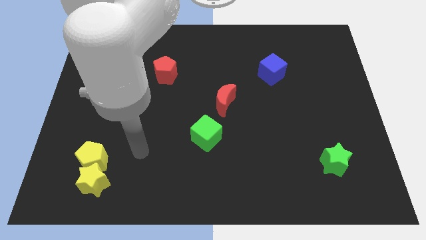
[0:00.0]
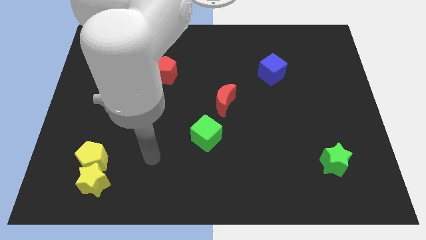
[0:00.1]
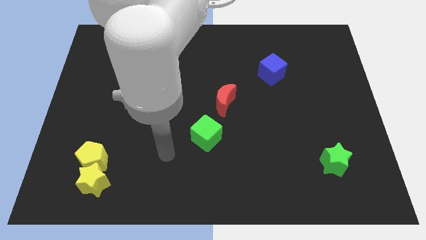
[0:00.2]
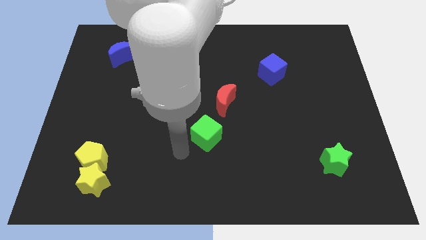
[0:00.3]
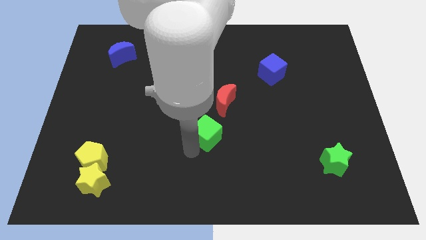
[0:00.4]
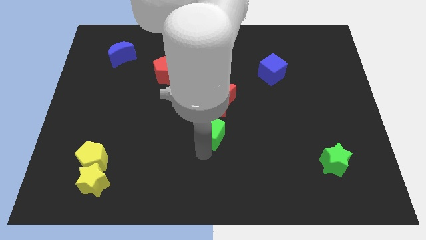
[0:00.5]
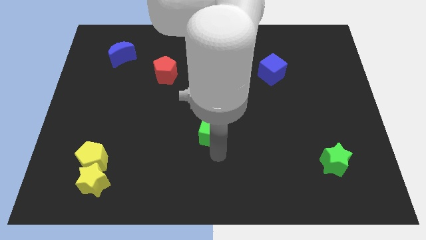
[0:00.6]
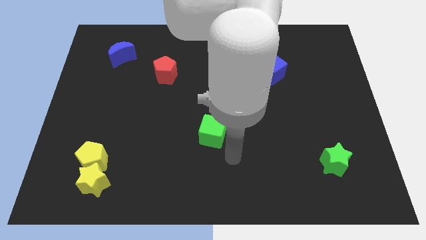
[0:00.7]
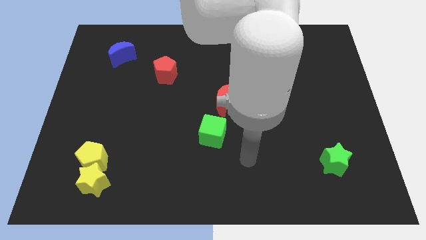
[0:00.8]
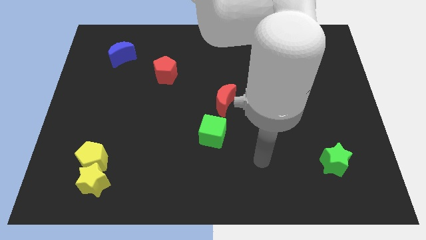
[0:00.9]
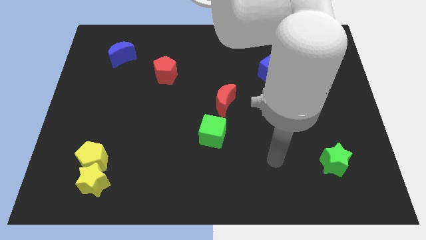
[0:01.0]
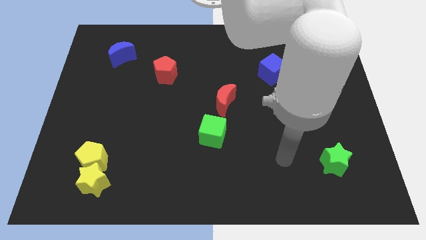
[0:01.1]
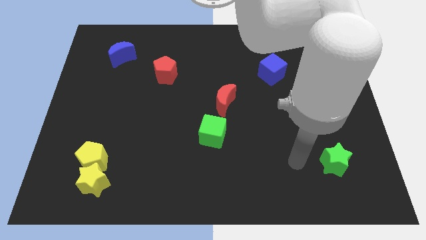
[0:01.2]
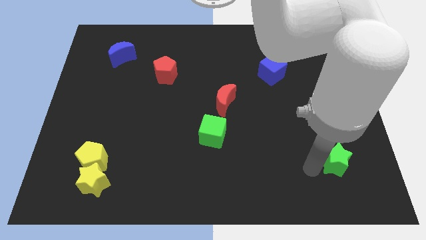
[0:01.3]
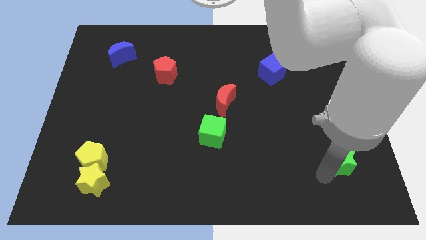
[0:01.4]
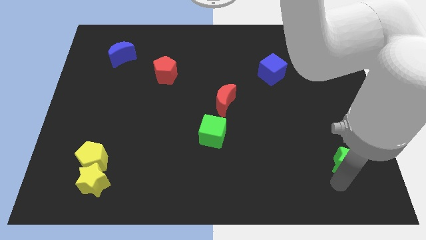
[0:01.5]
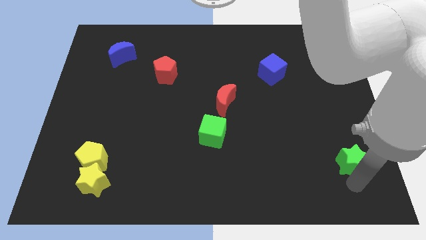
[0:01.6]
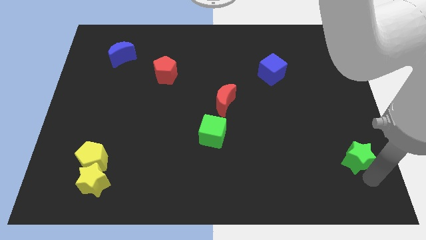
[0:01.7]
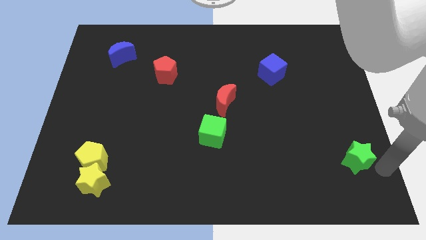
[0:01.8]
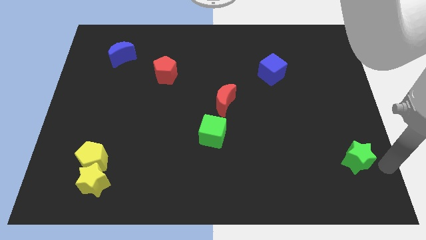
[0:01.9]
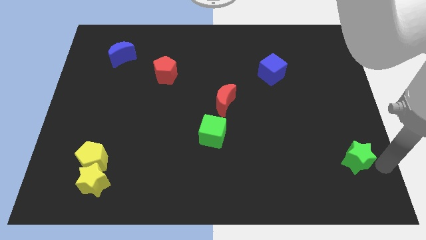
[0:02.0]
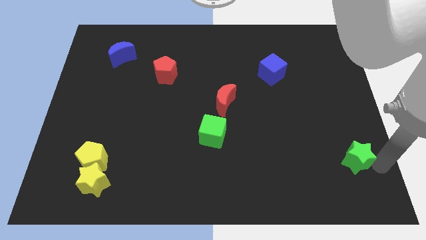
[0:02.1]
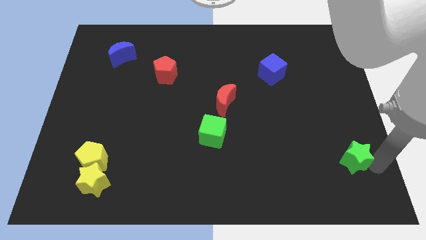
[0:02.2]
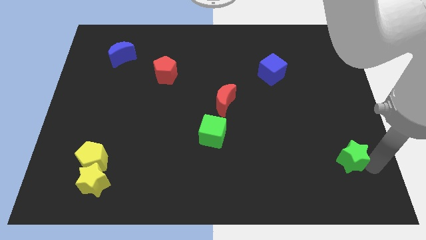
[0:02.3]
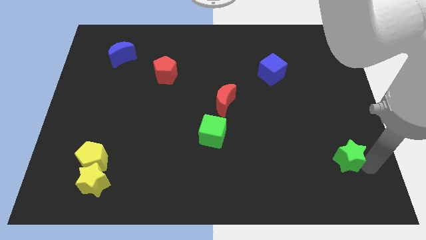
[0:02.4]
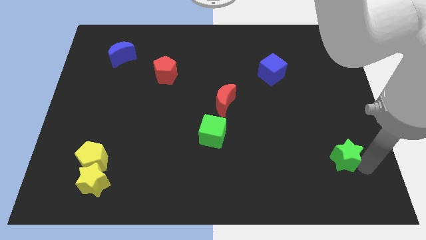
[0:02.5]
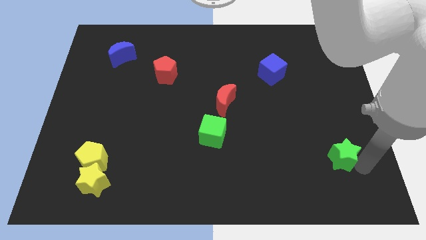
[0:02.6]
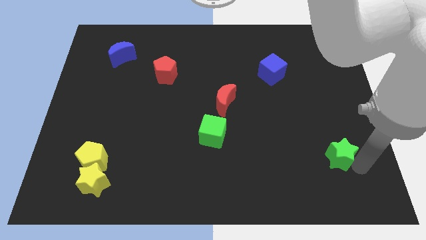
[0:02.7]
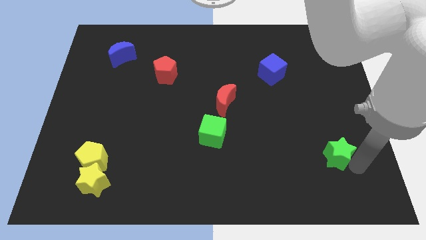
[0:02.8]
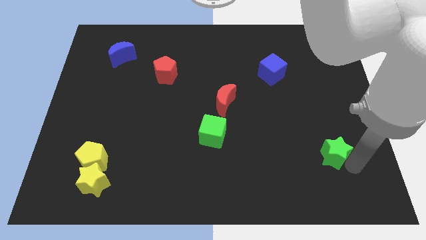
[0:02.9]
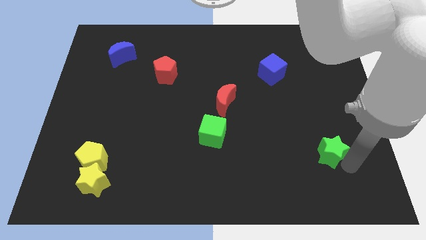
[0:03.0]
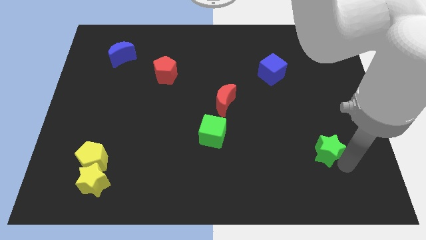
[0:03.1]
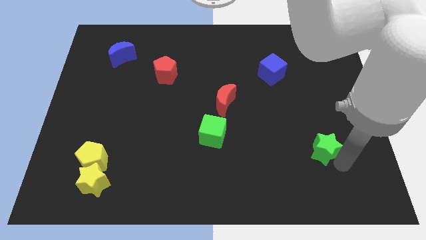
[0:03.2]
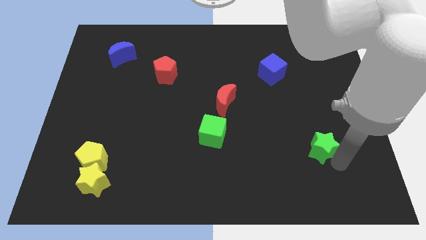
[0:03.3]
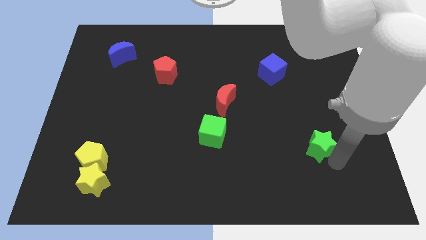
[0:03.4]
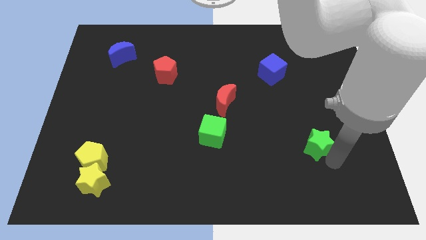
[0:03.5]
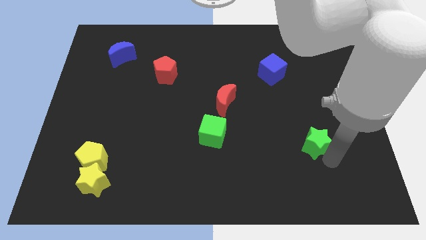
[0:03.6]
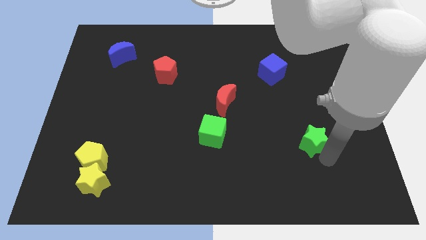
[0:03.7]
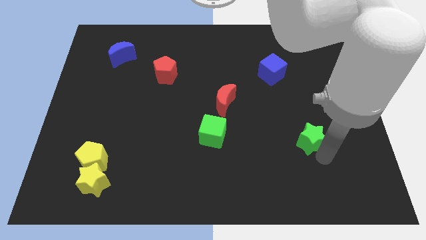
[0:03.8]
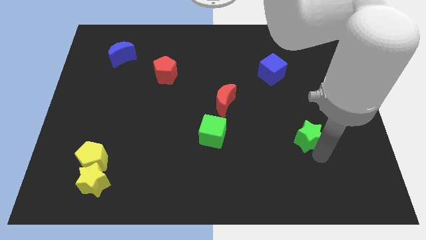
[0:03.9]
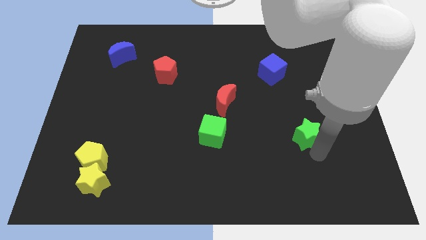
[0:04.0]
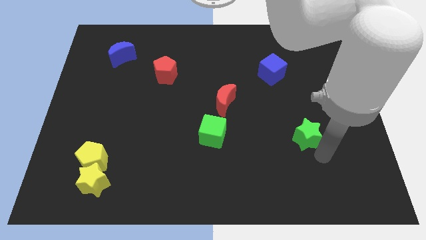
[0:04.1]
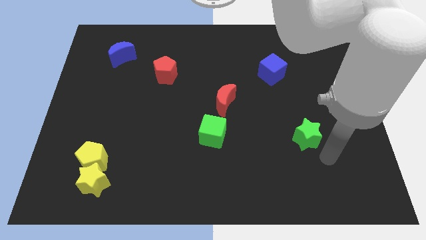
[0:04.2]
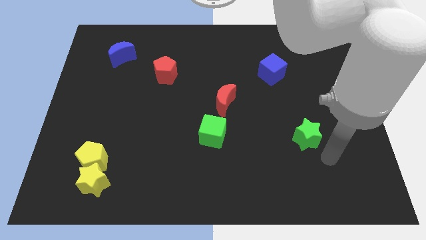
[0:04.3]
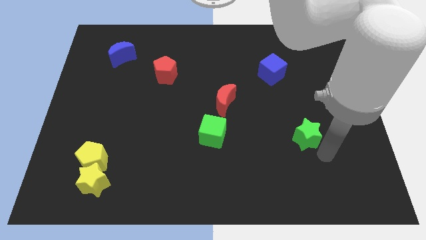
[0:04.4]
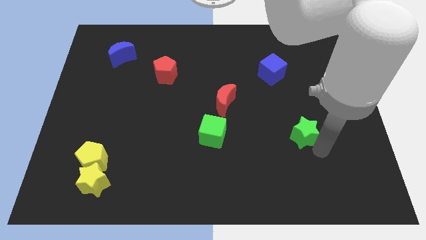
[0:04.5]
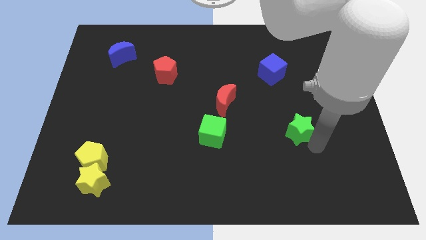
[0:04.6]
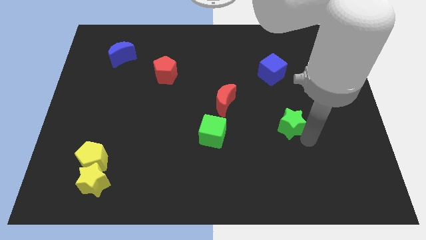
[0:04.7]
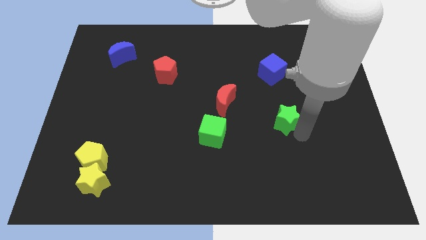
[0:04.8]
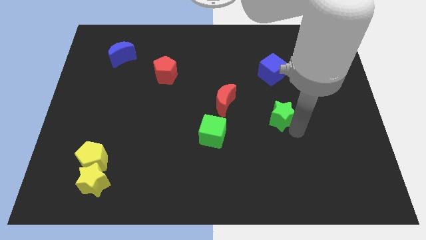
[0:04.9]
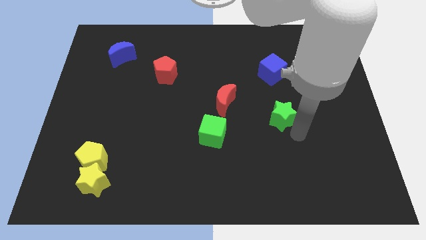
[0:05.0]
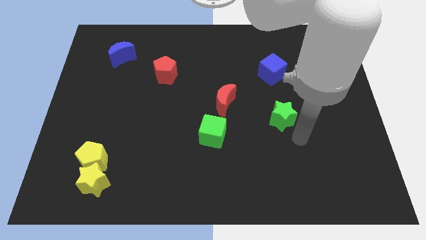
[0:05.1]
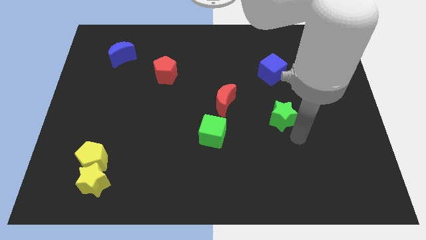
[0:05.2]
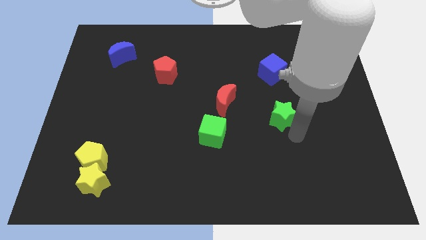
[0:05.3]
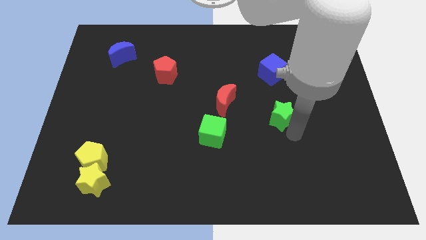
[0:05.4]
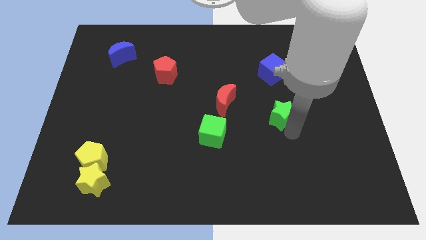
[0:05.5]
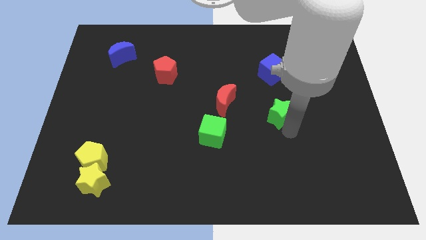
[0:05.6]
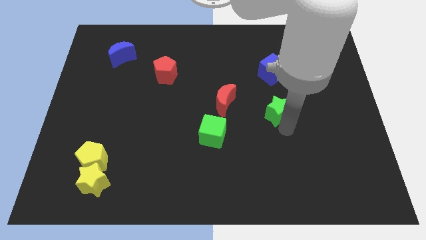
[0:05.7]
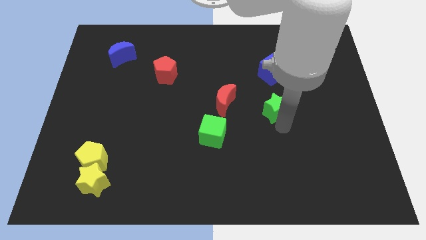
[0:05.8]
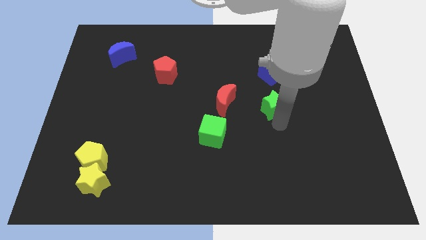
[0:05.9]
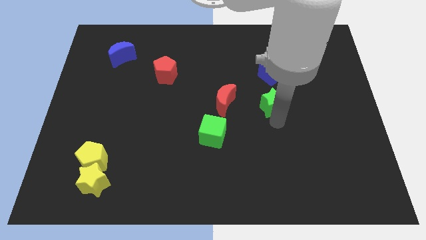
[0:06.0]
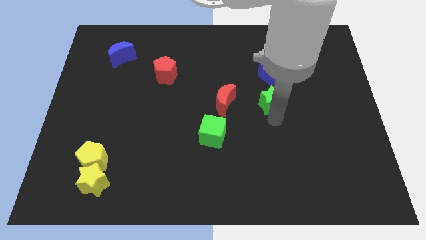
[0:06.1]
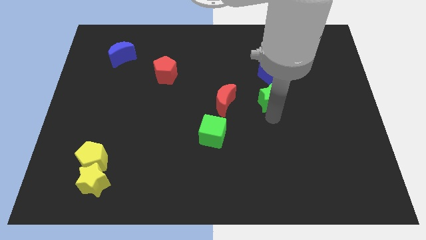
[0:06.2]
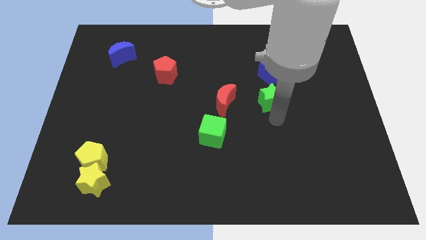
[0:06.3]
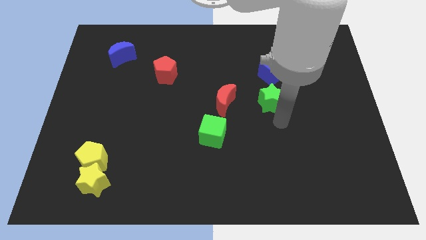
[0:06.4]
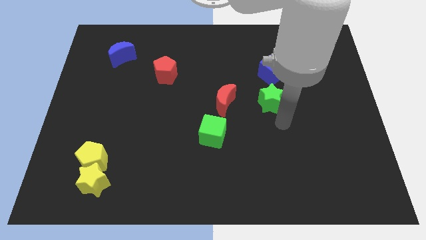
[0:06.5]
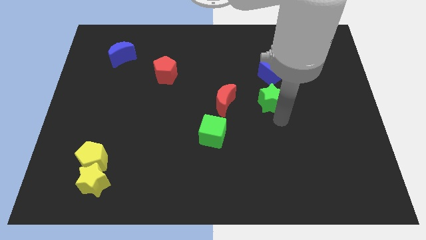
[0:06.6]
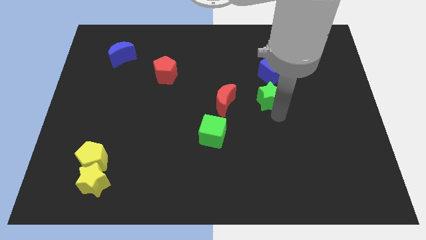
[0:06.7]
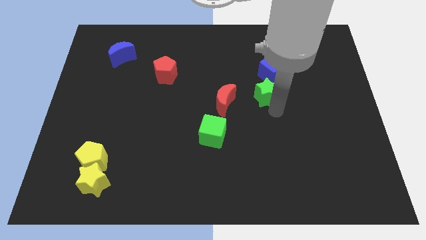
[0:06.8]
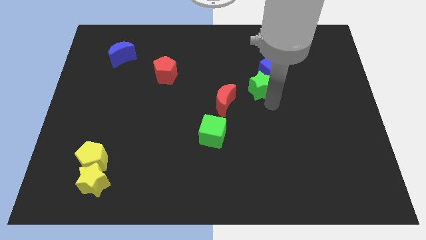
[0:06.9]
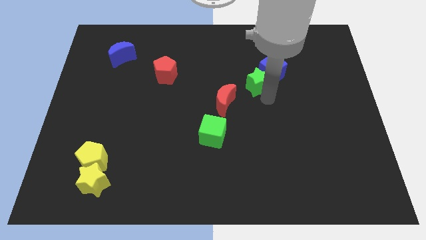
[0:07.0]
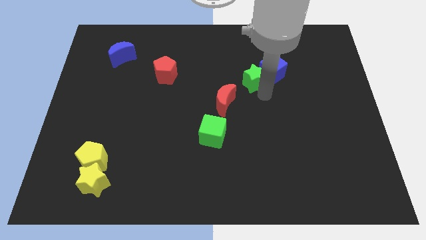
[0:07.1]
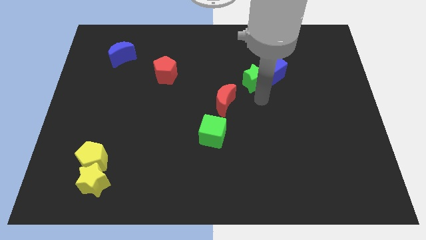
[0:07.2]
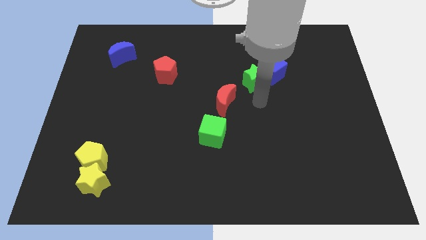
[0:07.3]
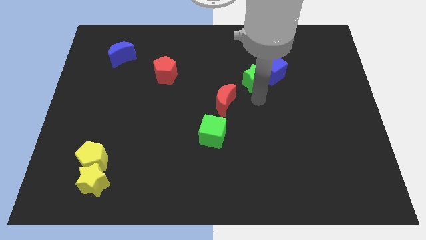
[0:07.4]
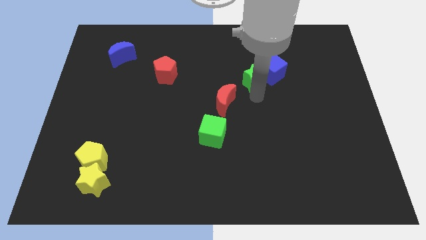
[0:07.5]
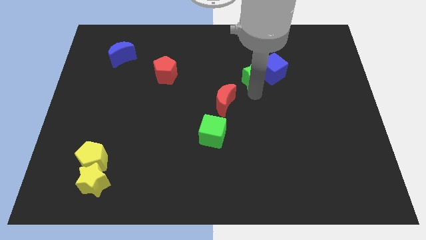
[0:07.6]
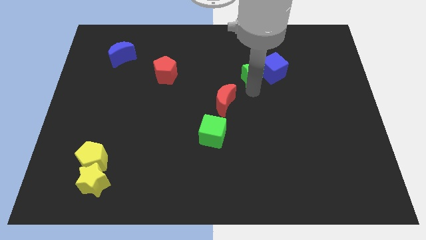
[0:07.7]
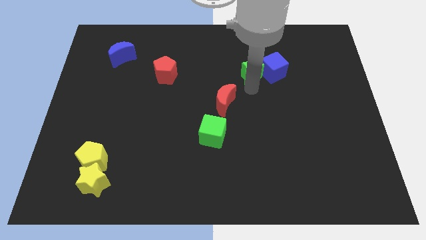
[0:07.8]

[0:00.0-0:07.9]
push the green star diagonally up and to the left of the blue cube
